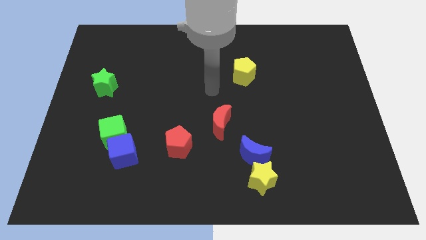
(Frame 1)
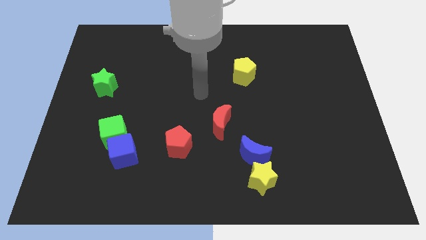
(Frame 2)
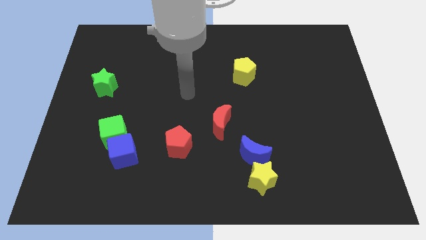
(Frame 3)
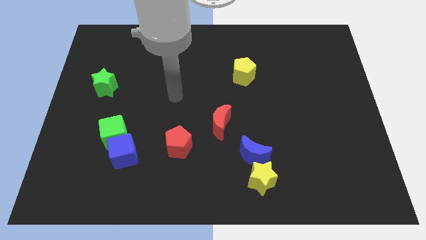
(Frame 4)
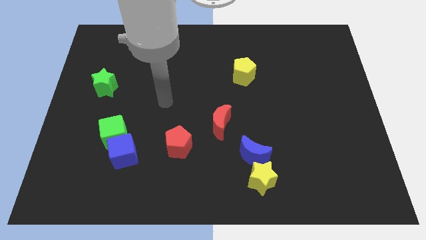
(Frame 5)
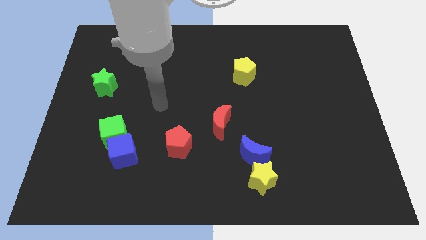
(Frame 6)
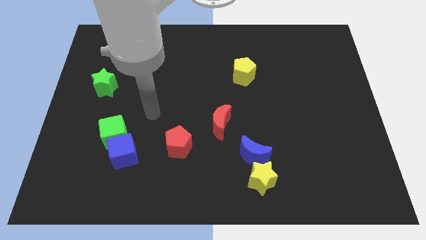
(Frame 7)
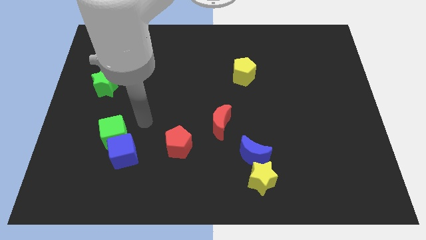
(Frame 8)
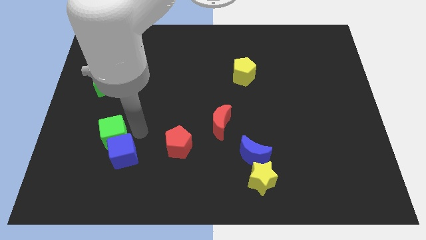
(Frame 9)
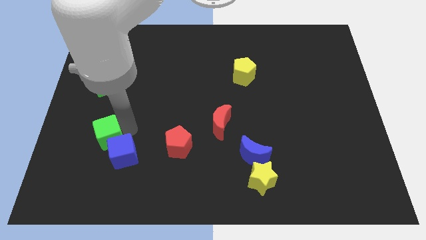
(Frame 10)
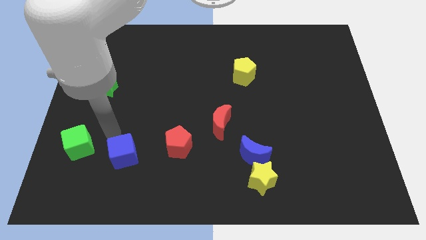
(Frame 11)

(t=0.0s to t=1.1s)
pull the blue cube apart from the green cube

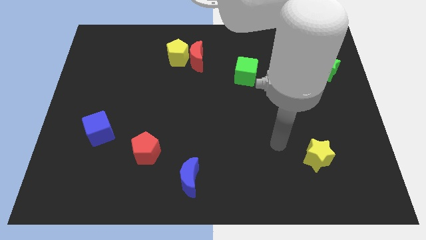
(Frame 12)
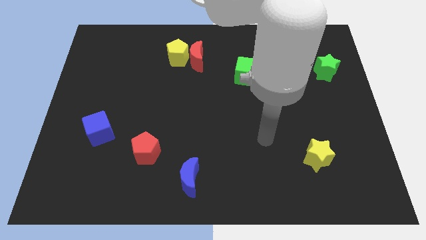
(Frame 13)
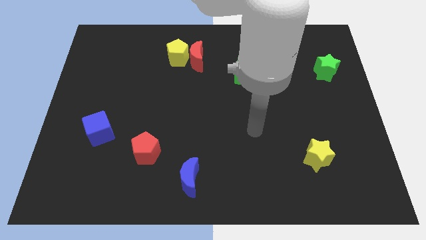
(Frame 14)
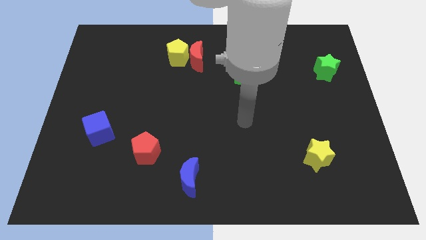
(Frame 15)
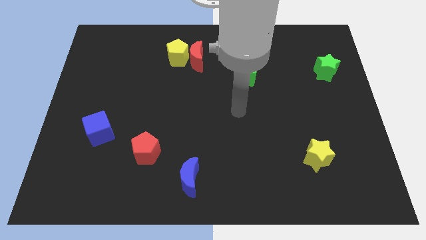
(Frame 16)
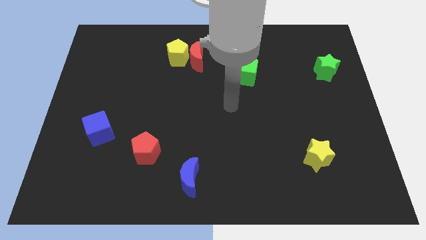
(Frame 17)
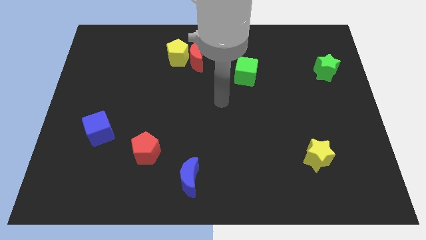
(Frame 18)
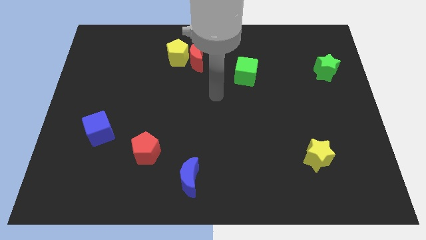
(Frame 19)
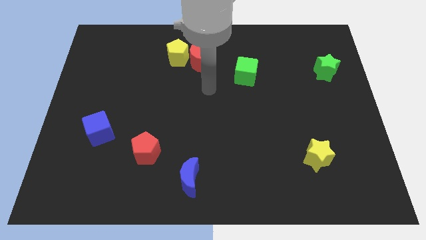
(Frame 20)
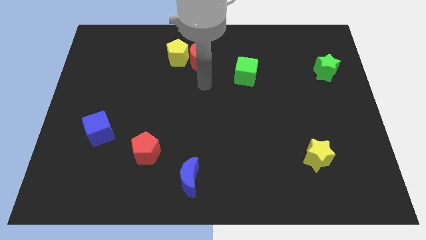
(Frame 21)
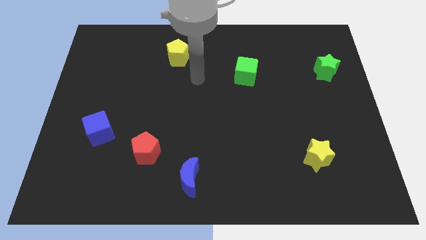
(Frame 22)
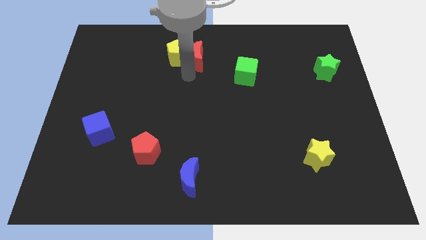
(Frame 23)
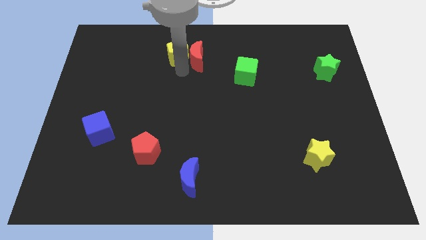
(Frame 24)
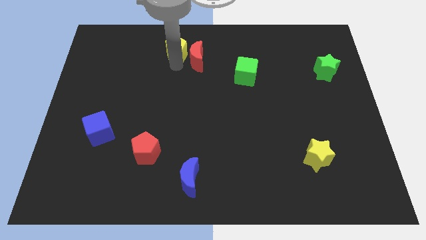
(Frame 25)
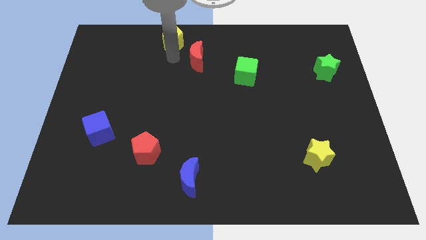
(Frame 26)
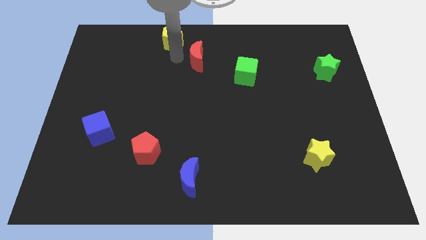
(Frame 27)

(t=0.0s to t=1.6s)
move the red moon away from the yellow pentagon

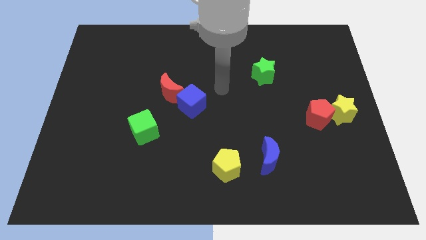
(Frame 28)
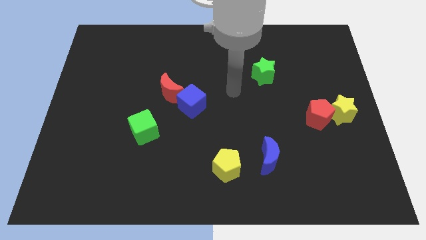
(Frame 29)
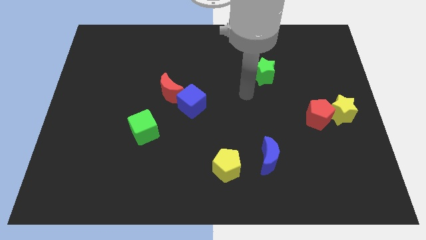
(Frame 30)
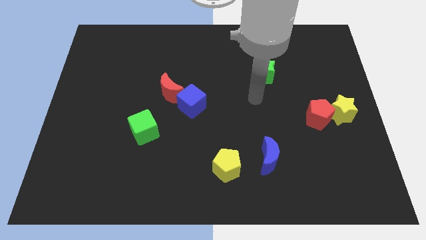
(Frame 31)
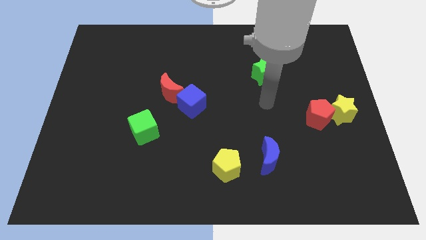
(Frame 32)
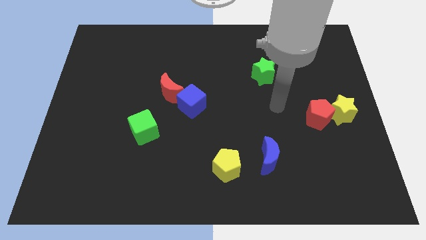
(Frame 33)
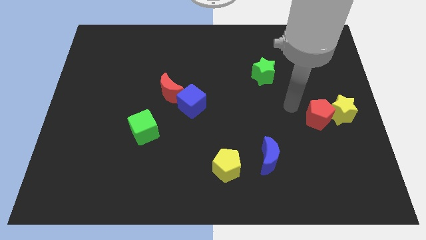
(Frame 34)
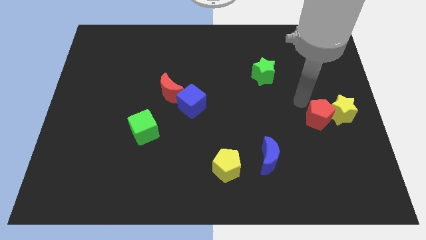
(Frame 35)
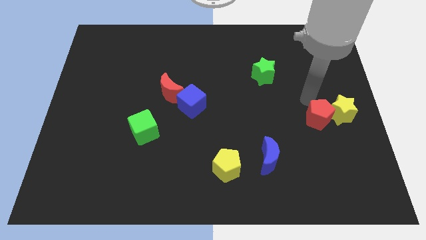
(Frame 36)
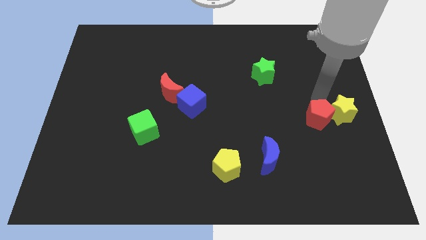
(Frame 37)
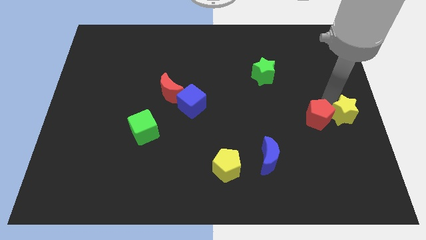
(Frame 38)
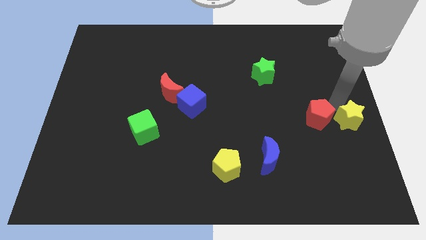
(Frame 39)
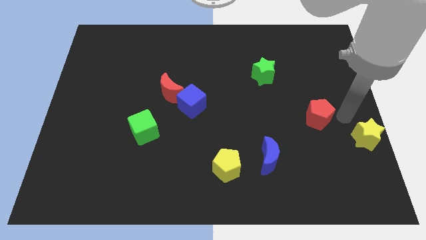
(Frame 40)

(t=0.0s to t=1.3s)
move the red pentagon away from the yellow star

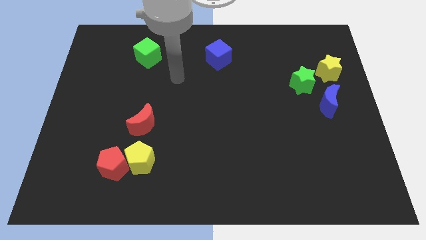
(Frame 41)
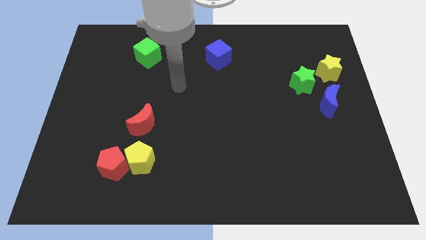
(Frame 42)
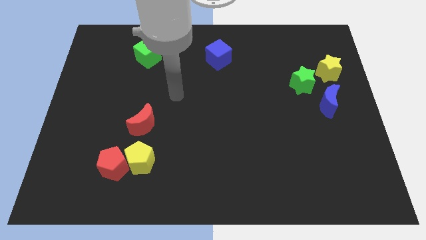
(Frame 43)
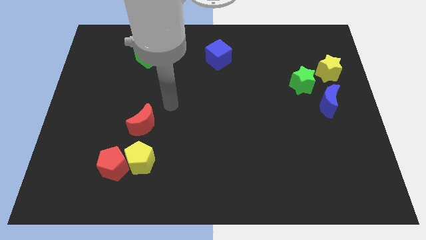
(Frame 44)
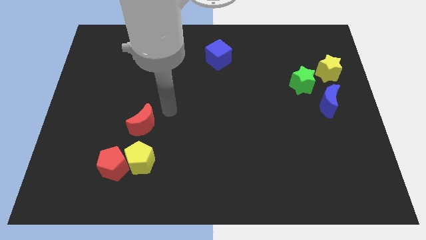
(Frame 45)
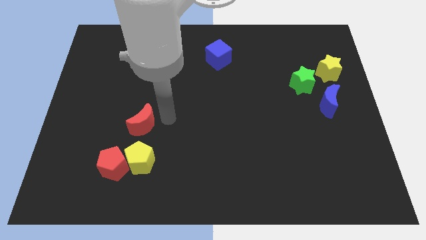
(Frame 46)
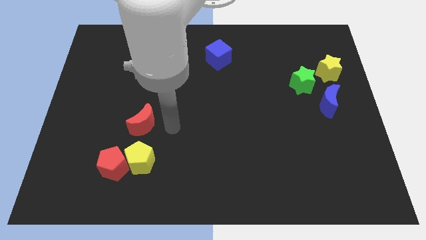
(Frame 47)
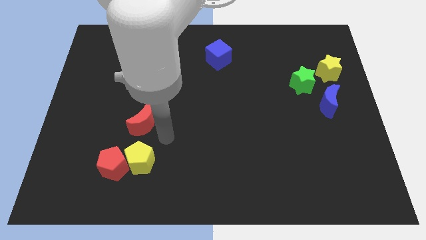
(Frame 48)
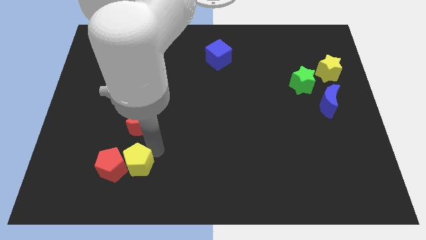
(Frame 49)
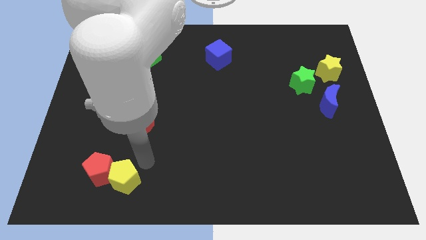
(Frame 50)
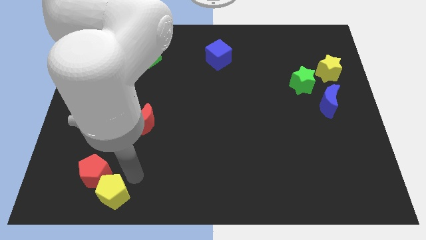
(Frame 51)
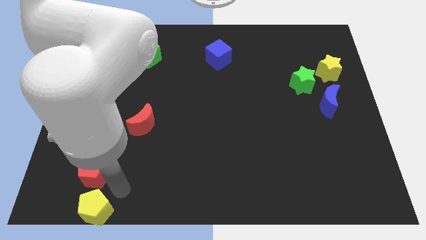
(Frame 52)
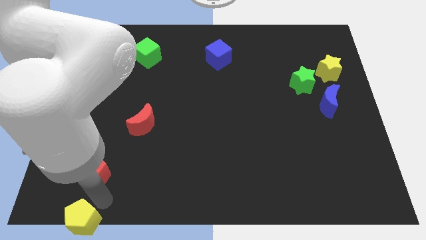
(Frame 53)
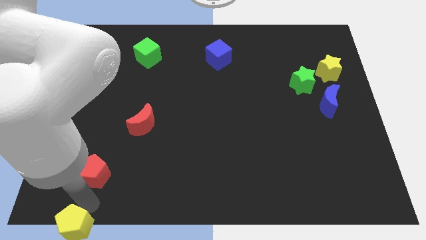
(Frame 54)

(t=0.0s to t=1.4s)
pull the red pentagon apart from the yellow pentagon

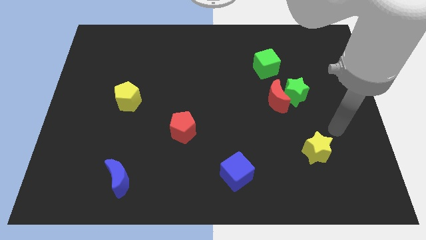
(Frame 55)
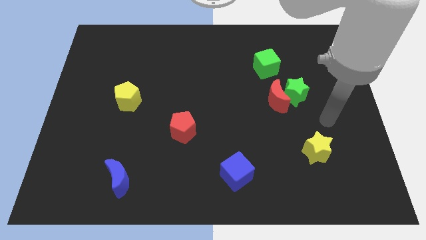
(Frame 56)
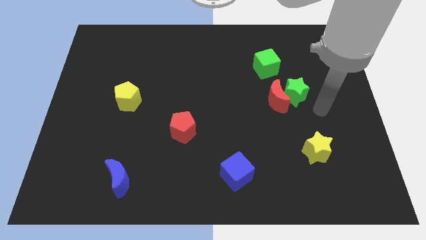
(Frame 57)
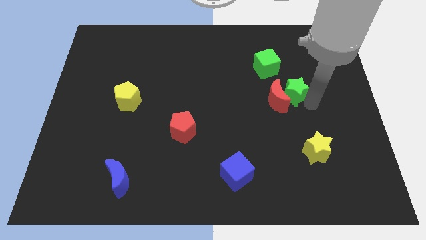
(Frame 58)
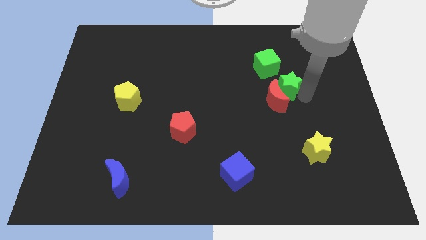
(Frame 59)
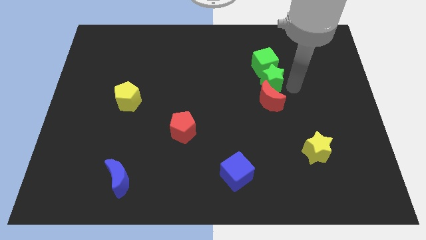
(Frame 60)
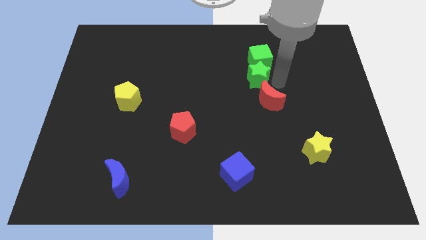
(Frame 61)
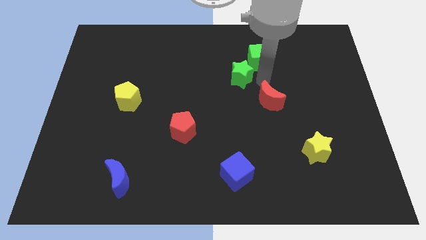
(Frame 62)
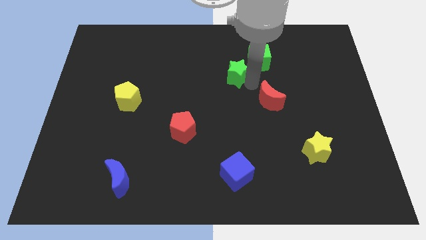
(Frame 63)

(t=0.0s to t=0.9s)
move the red moon away from the green star

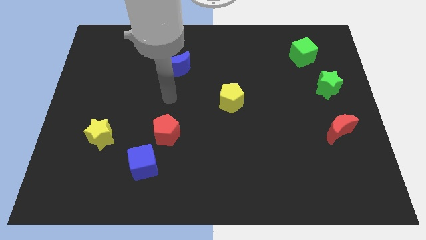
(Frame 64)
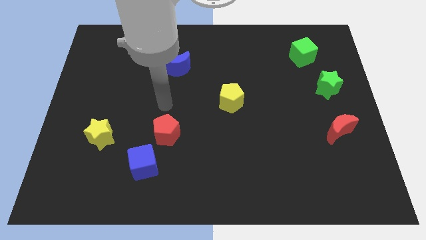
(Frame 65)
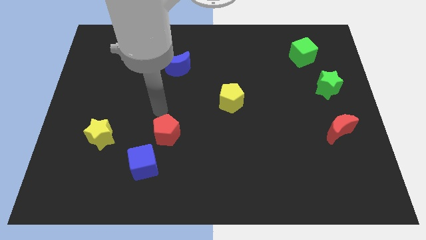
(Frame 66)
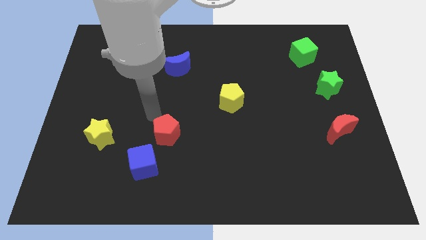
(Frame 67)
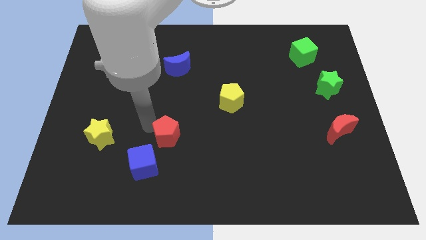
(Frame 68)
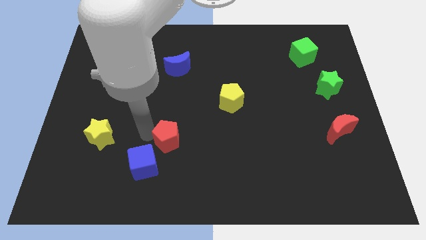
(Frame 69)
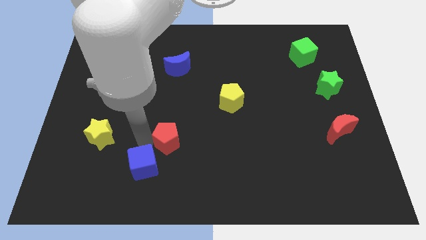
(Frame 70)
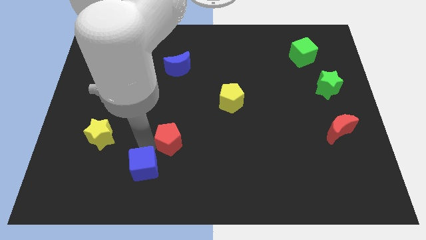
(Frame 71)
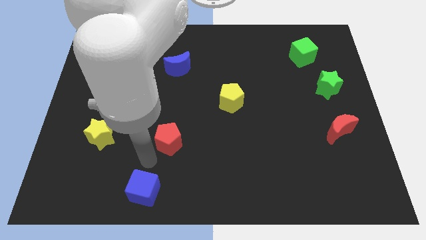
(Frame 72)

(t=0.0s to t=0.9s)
pull the red pentagon apart from the blue cube

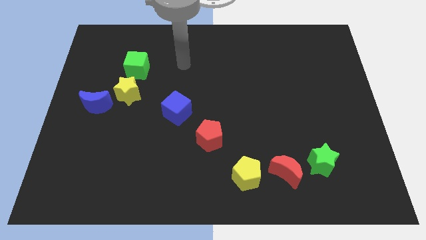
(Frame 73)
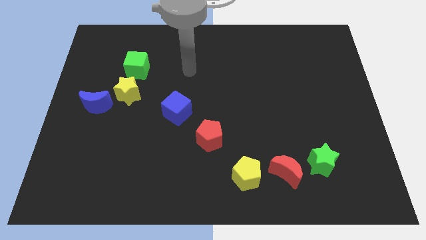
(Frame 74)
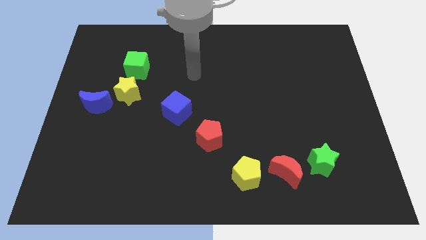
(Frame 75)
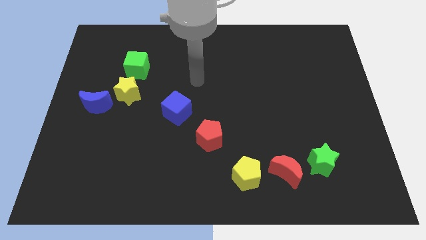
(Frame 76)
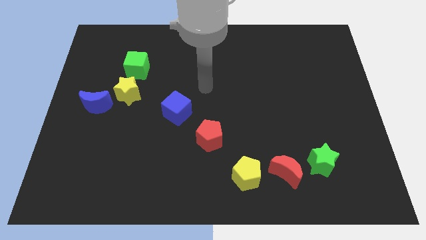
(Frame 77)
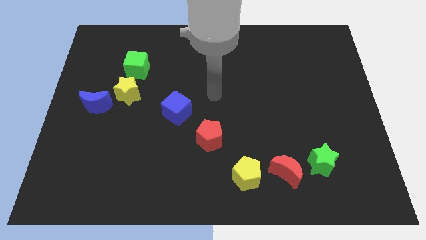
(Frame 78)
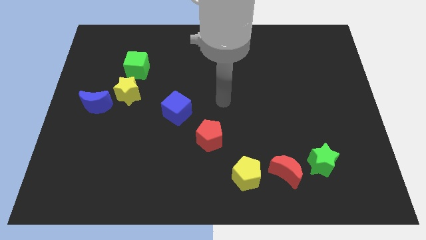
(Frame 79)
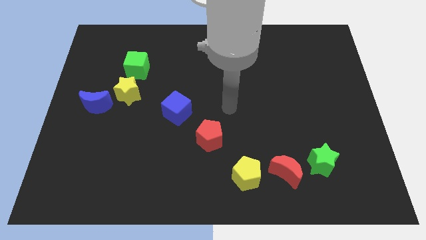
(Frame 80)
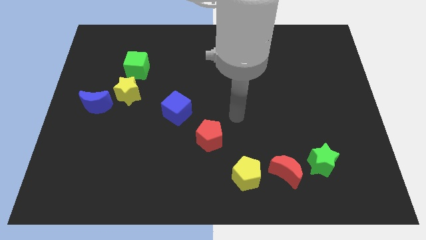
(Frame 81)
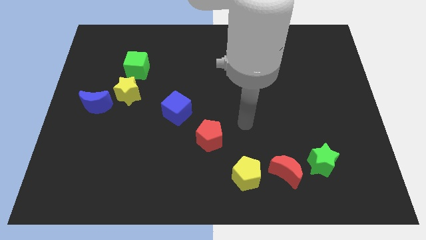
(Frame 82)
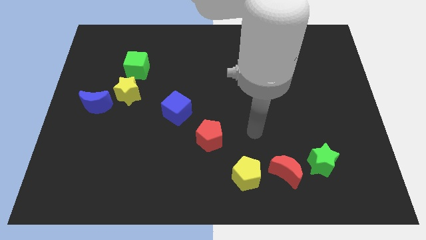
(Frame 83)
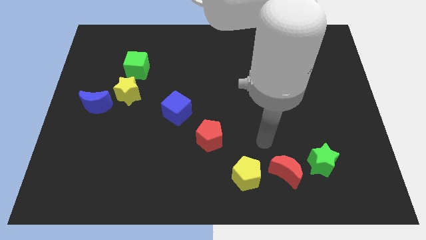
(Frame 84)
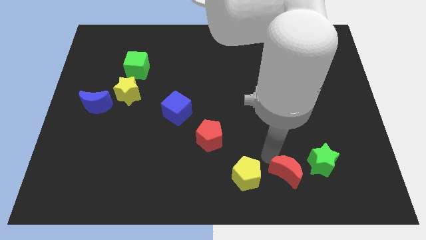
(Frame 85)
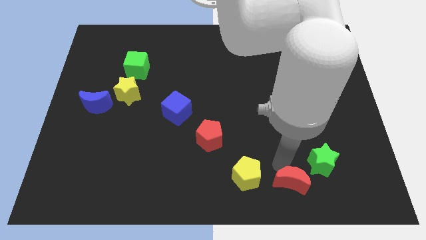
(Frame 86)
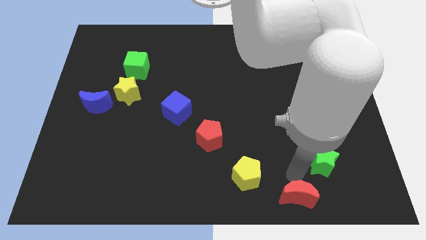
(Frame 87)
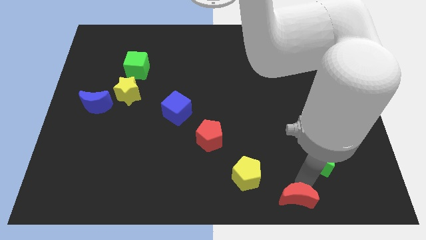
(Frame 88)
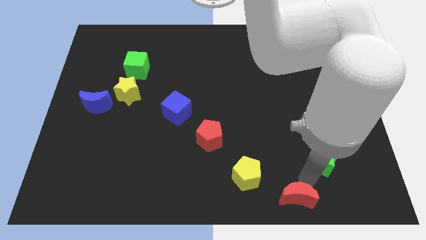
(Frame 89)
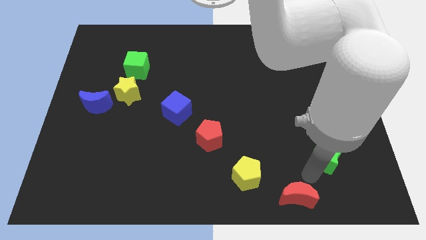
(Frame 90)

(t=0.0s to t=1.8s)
separate the green star from the red moon

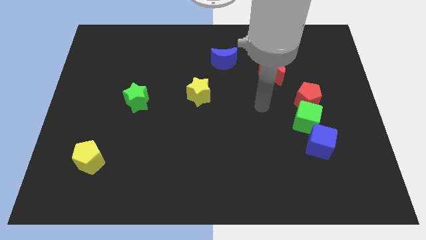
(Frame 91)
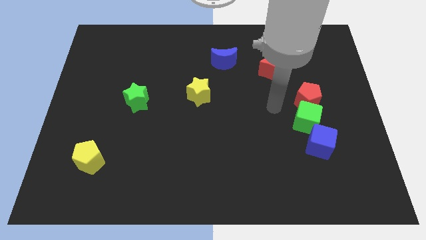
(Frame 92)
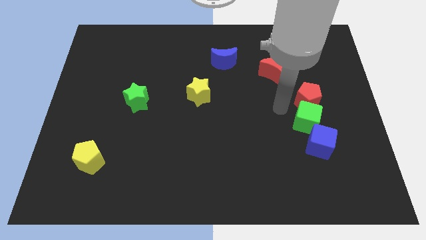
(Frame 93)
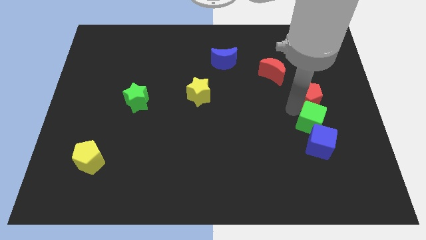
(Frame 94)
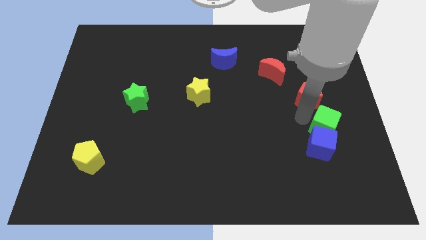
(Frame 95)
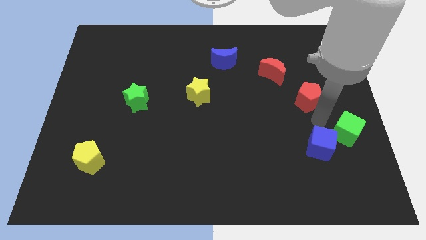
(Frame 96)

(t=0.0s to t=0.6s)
pull the red pentagon apart from the green cube
